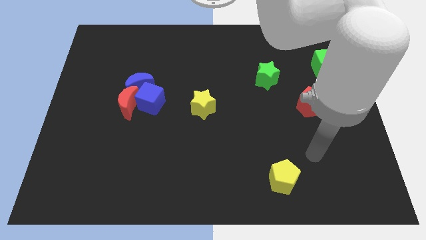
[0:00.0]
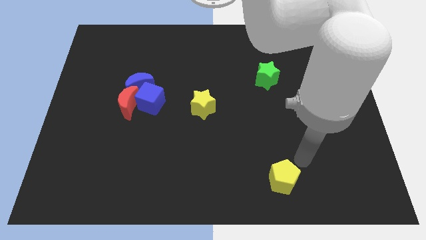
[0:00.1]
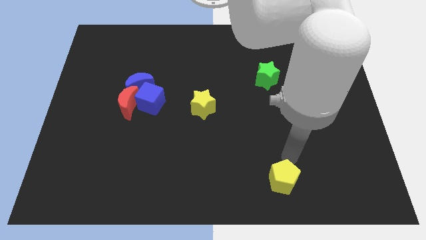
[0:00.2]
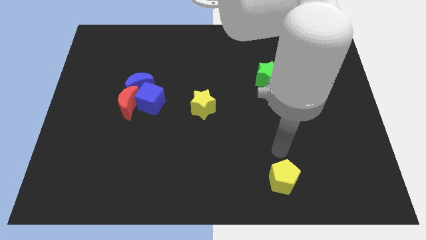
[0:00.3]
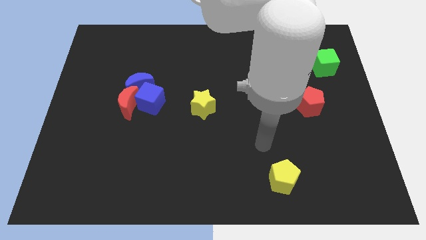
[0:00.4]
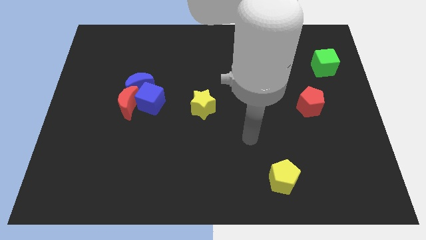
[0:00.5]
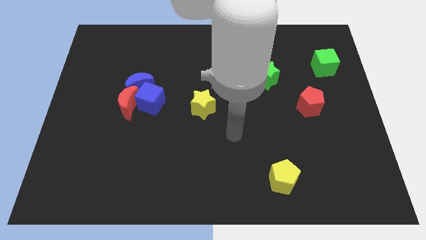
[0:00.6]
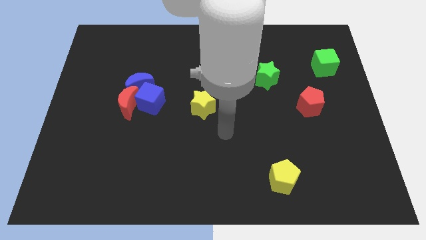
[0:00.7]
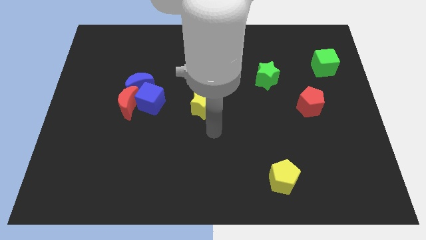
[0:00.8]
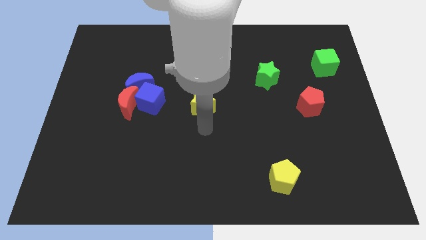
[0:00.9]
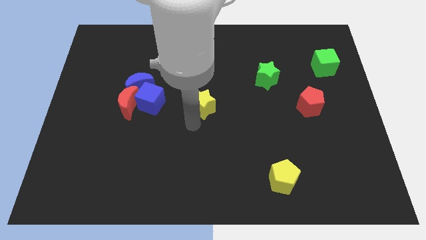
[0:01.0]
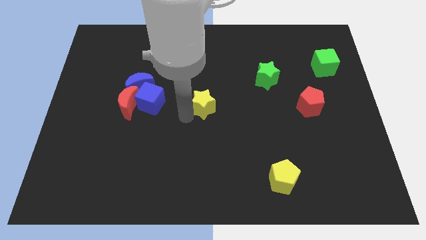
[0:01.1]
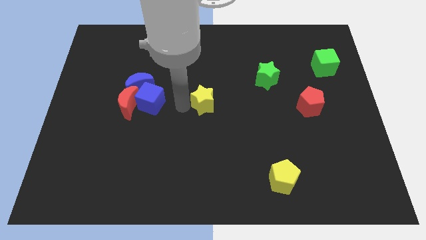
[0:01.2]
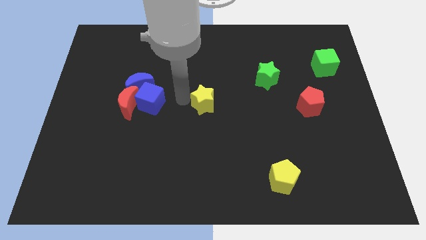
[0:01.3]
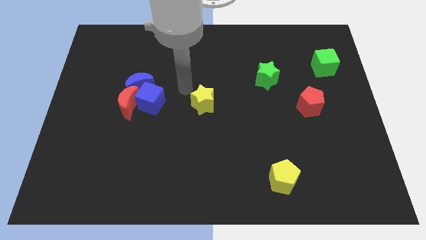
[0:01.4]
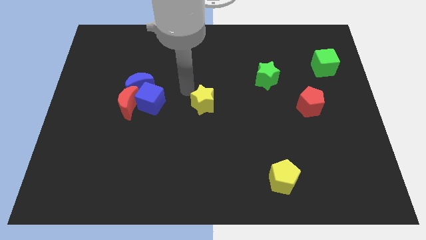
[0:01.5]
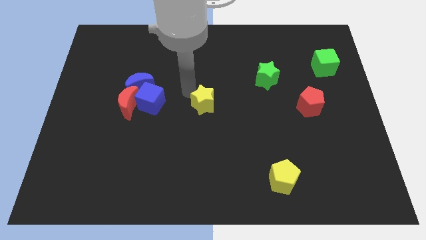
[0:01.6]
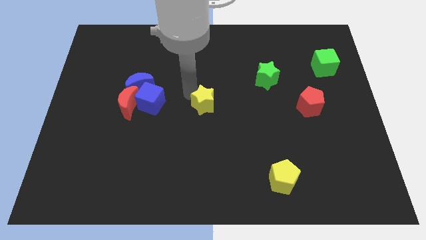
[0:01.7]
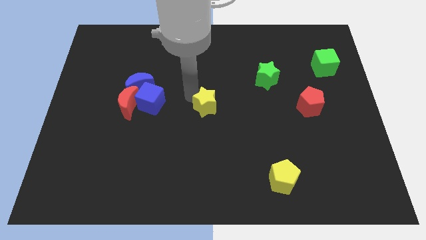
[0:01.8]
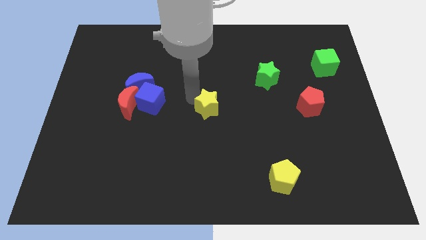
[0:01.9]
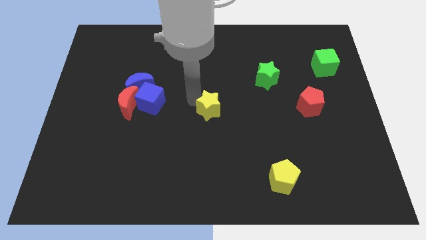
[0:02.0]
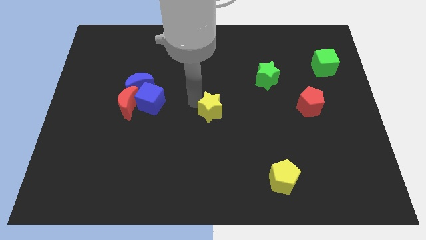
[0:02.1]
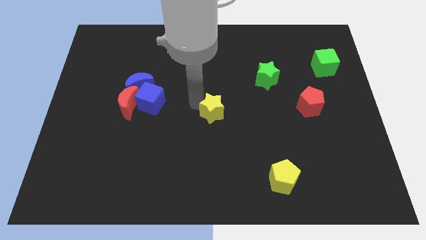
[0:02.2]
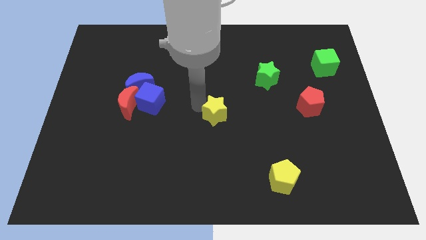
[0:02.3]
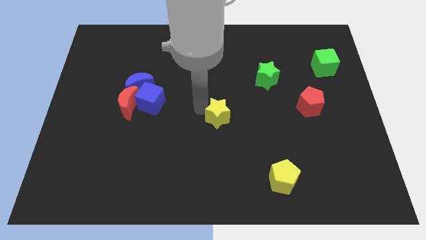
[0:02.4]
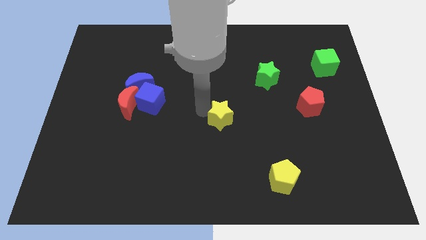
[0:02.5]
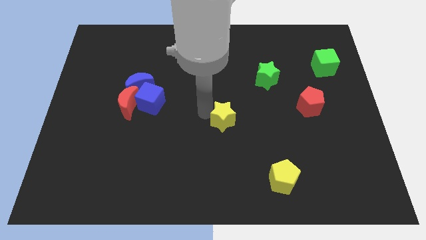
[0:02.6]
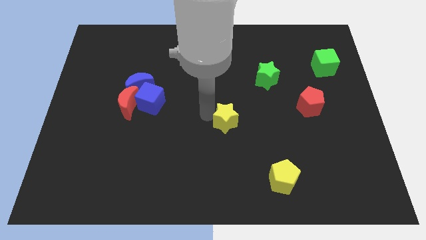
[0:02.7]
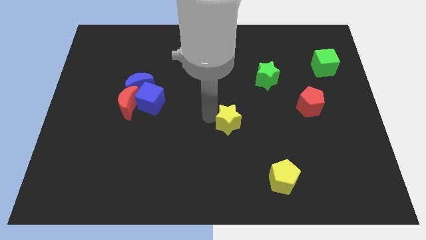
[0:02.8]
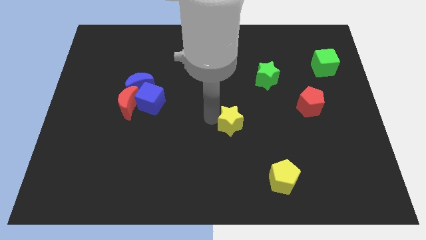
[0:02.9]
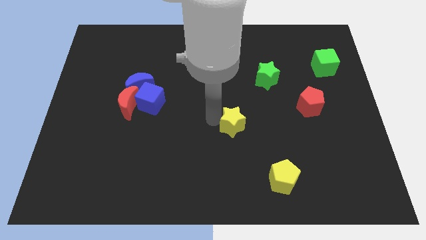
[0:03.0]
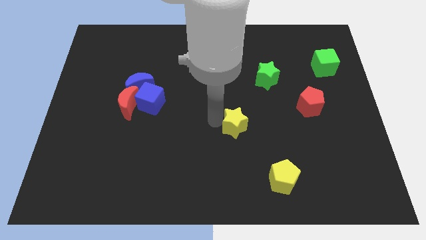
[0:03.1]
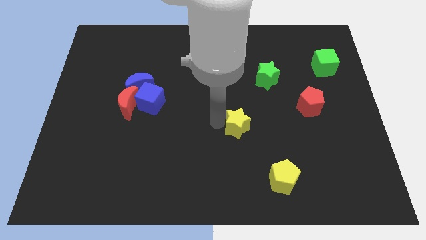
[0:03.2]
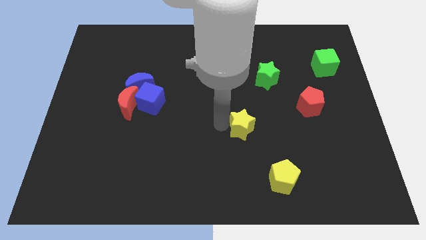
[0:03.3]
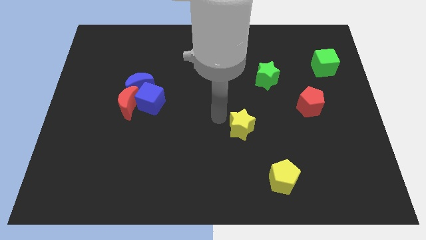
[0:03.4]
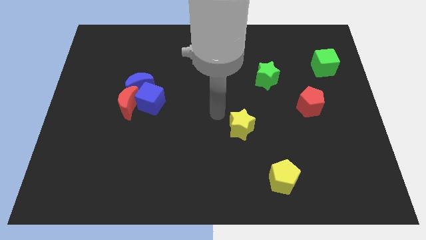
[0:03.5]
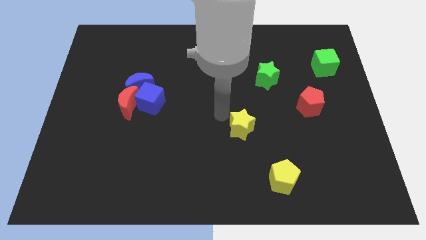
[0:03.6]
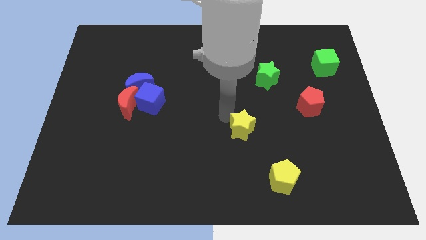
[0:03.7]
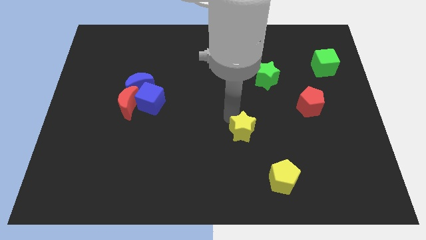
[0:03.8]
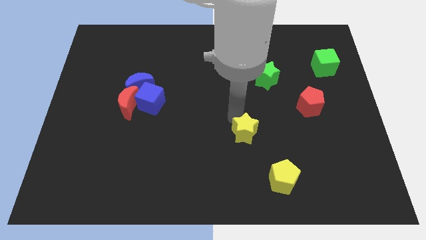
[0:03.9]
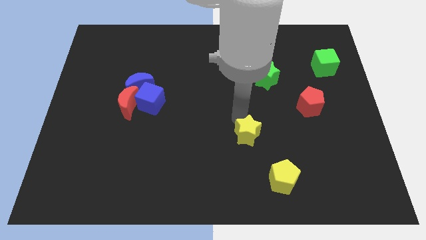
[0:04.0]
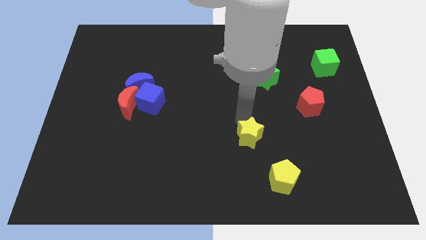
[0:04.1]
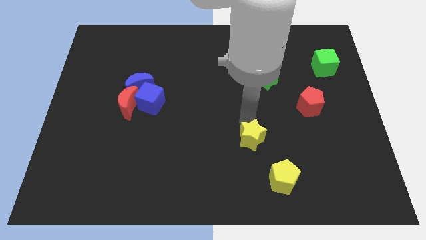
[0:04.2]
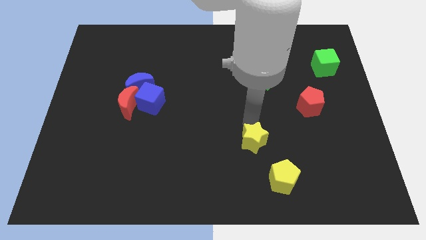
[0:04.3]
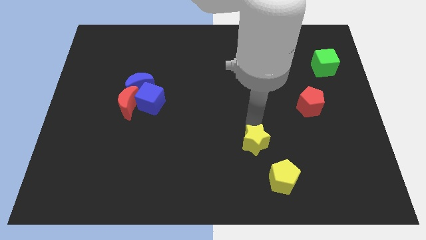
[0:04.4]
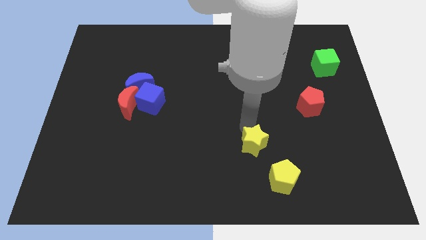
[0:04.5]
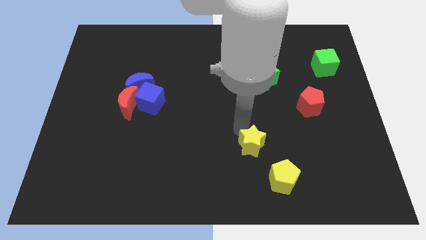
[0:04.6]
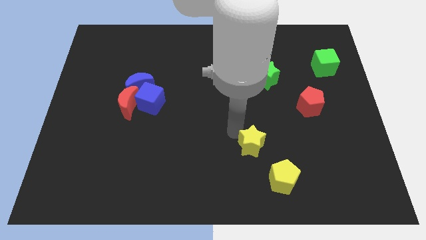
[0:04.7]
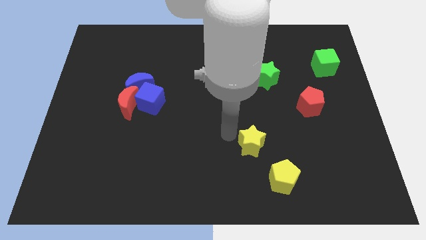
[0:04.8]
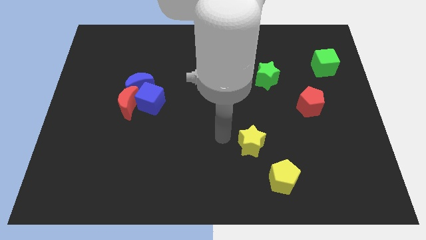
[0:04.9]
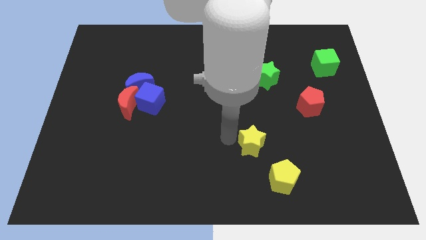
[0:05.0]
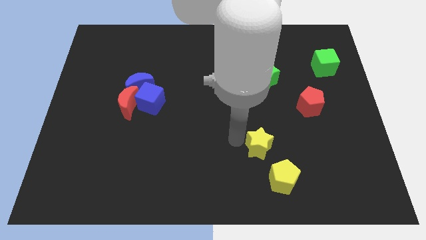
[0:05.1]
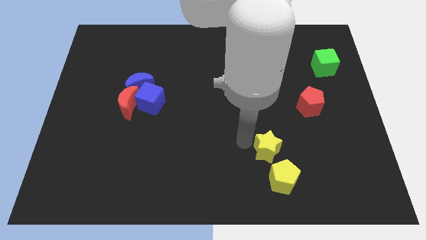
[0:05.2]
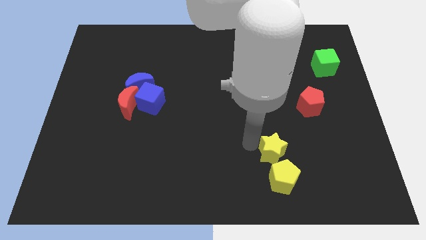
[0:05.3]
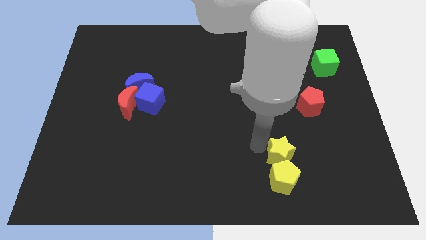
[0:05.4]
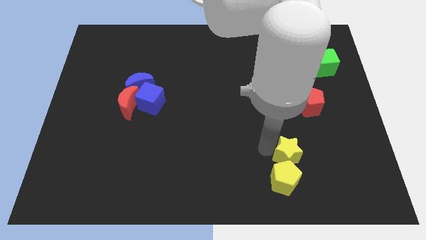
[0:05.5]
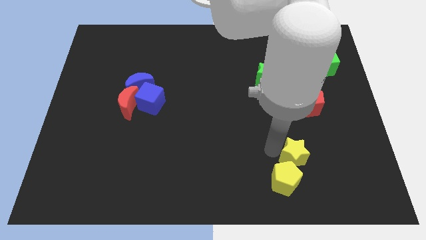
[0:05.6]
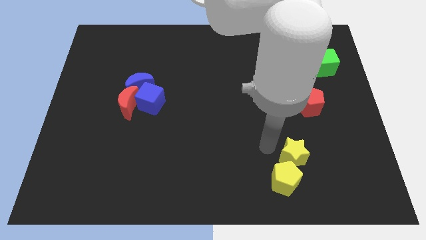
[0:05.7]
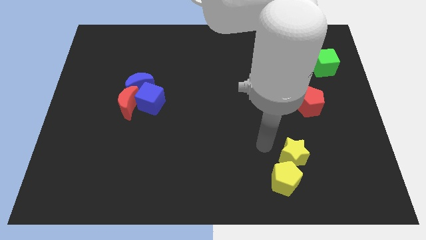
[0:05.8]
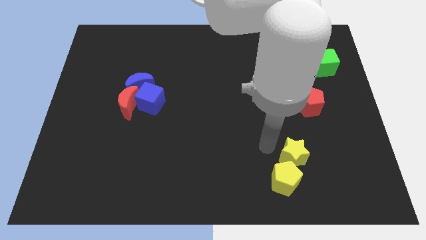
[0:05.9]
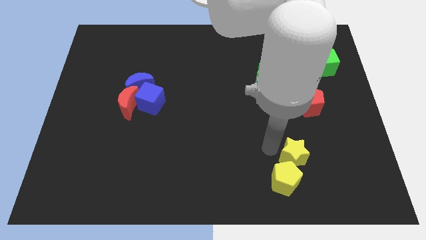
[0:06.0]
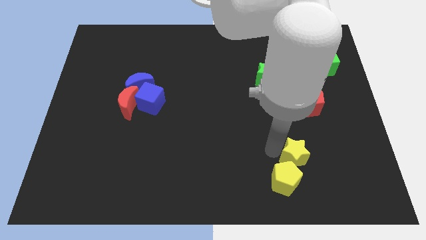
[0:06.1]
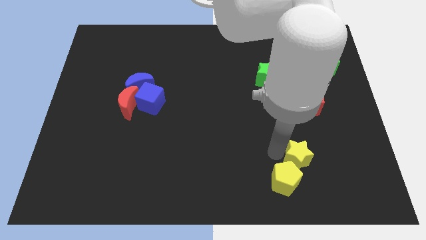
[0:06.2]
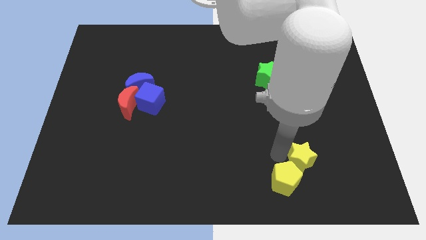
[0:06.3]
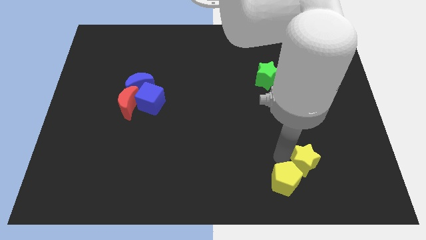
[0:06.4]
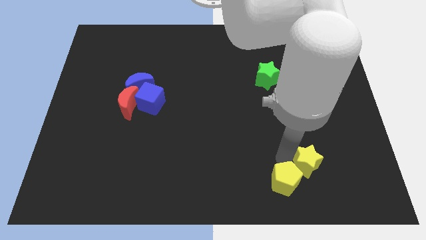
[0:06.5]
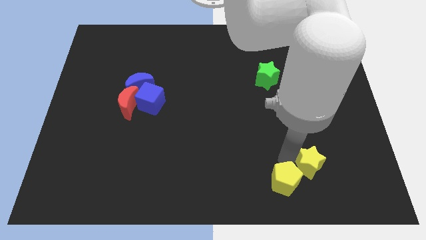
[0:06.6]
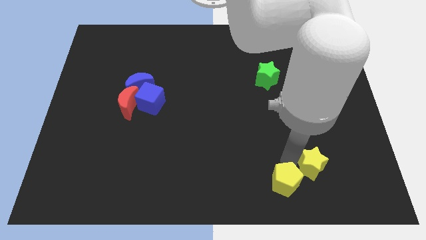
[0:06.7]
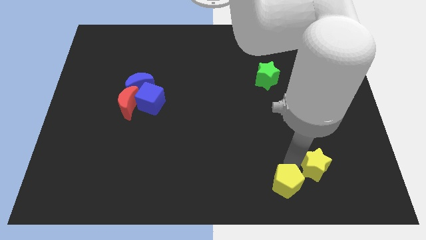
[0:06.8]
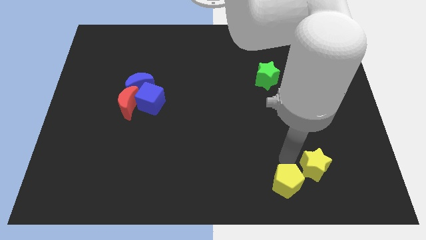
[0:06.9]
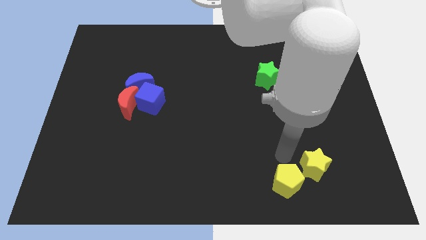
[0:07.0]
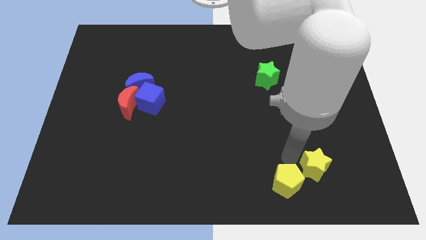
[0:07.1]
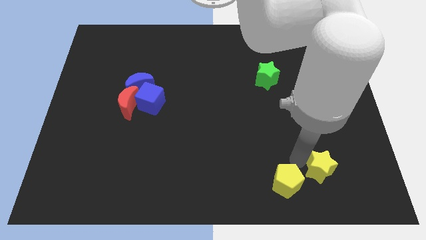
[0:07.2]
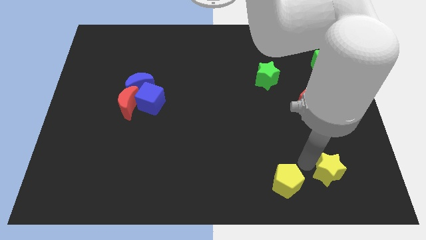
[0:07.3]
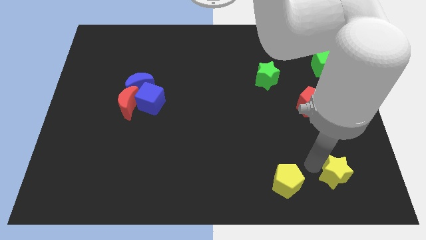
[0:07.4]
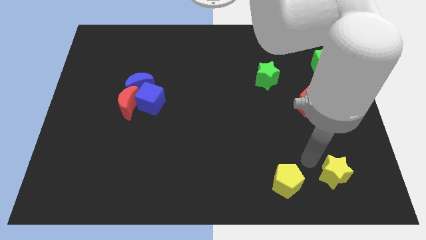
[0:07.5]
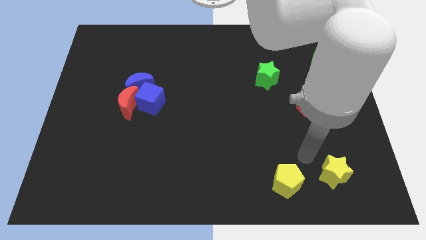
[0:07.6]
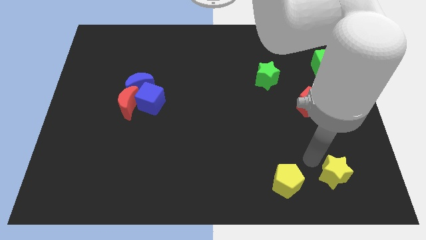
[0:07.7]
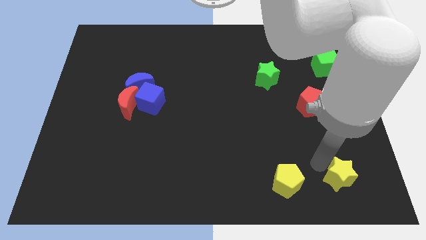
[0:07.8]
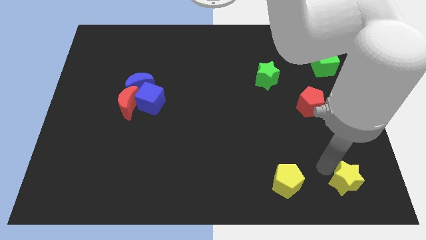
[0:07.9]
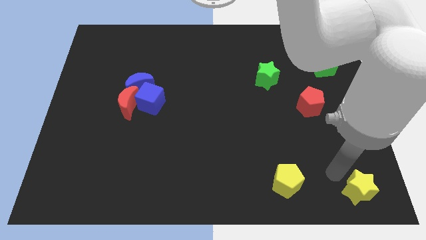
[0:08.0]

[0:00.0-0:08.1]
slide the yellow star to the bottom right corner
